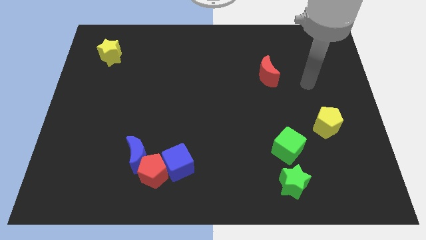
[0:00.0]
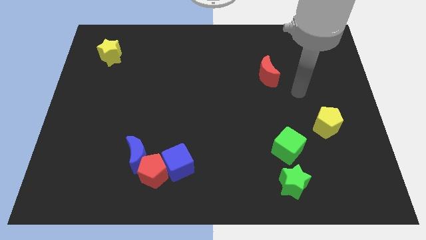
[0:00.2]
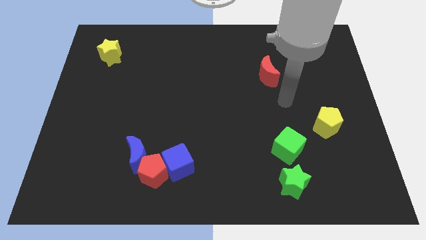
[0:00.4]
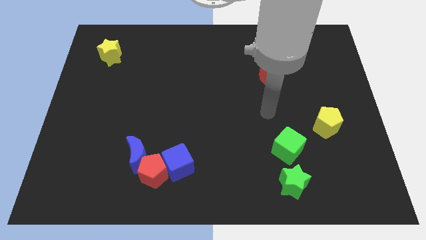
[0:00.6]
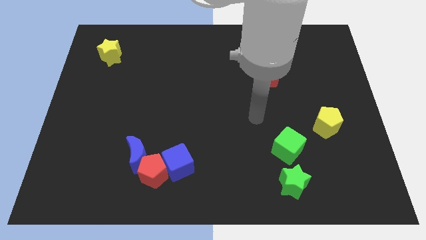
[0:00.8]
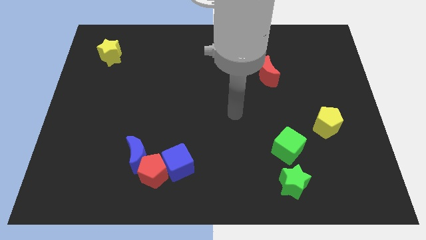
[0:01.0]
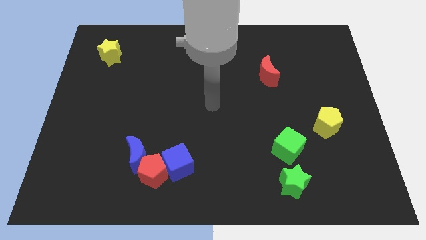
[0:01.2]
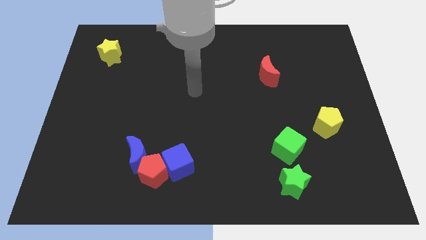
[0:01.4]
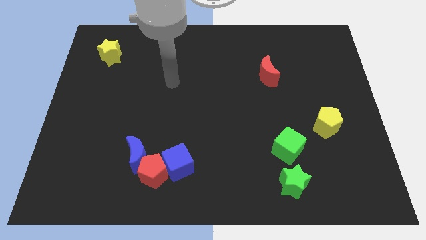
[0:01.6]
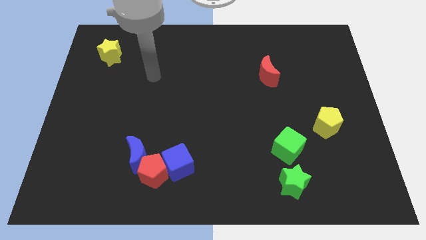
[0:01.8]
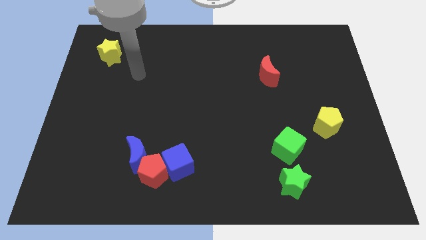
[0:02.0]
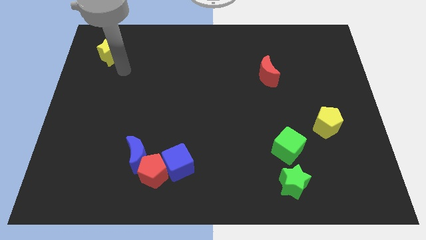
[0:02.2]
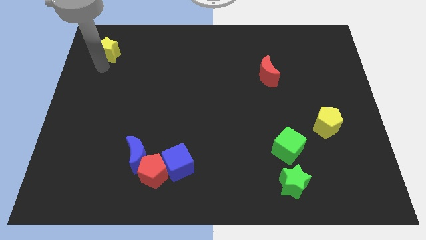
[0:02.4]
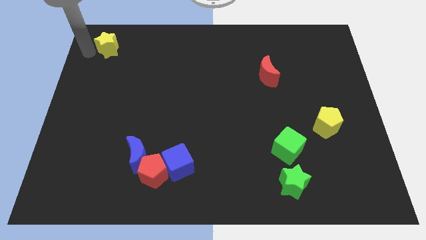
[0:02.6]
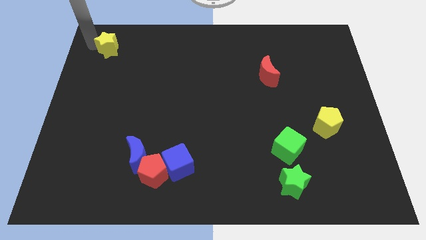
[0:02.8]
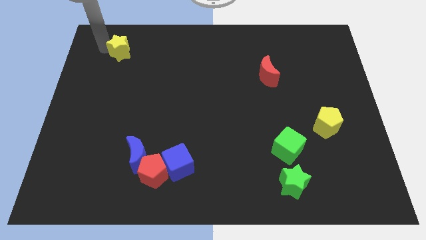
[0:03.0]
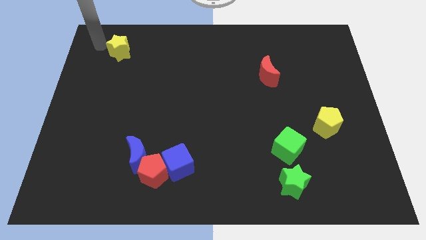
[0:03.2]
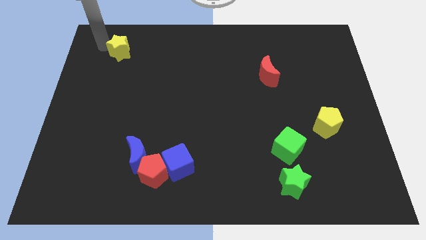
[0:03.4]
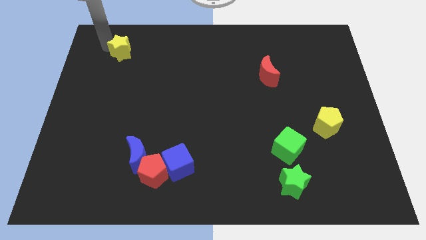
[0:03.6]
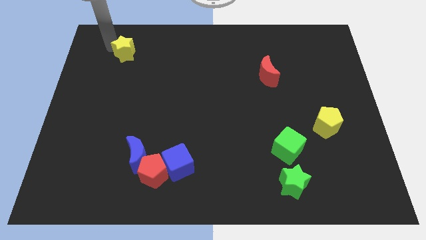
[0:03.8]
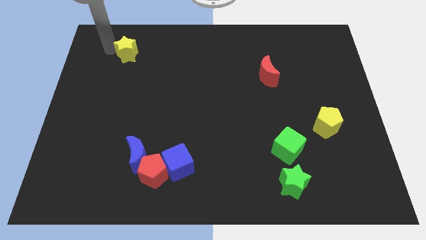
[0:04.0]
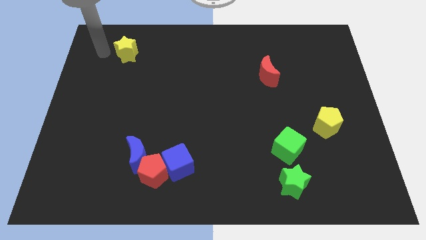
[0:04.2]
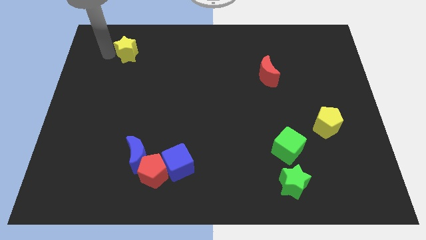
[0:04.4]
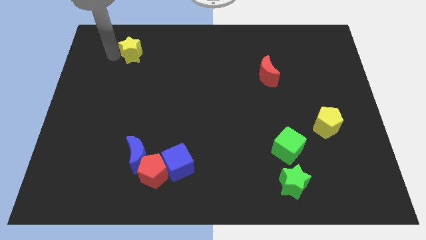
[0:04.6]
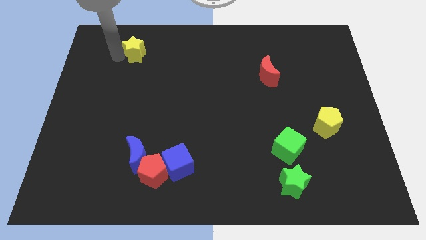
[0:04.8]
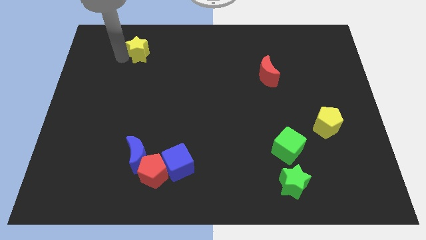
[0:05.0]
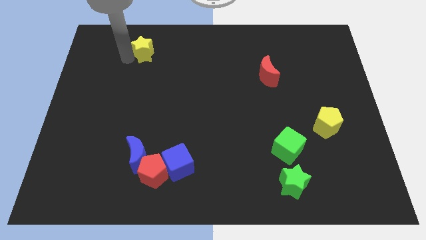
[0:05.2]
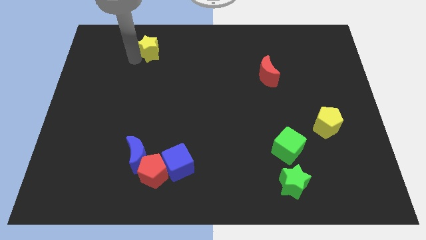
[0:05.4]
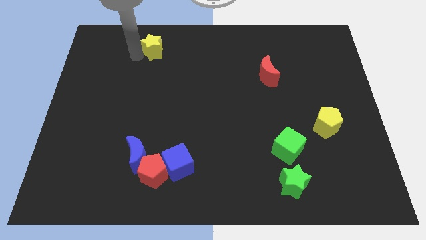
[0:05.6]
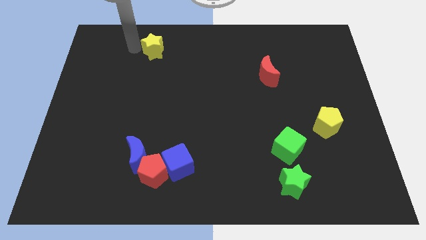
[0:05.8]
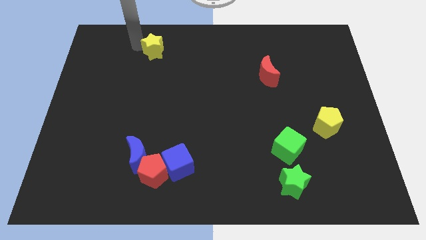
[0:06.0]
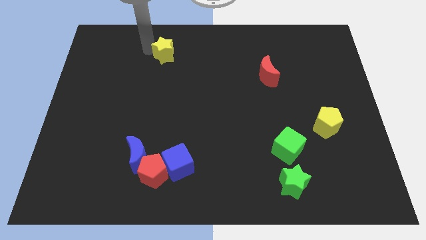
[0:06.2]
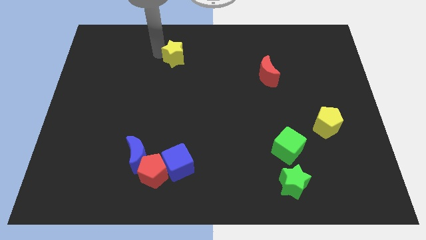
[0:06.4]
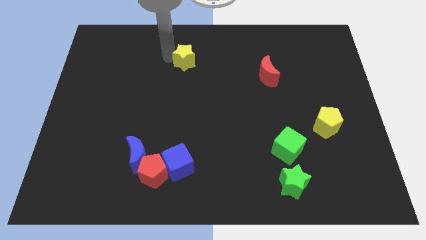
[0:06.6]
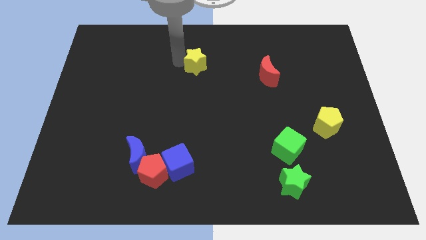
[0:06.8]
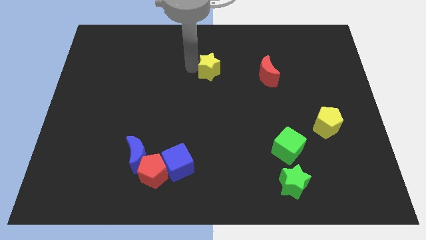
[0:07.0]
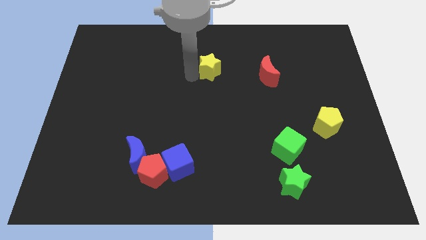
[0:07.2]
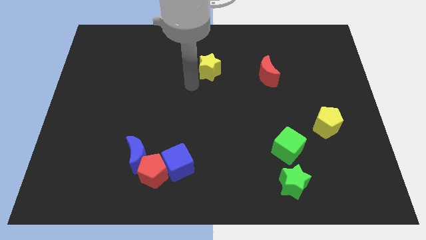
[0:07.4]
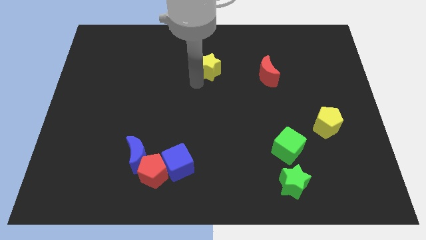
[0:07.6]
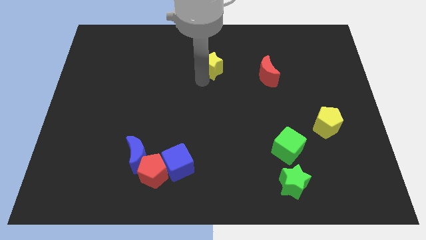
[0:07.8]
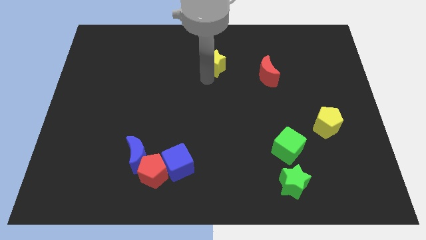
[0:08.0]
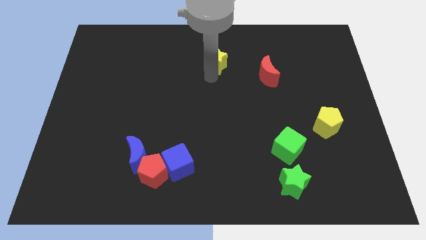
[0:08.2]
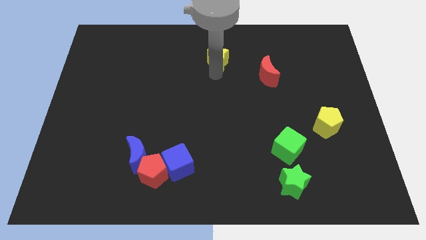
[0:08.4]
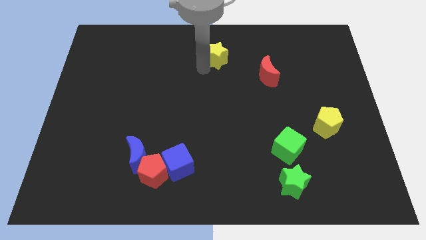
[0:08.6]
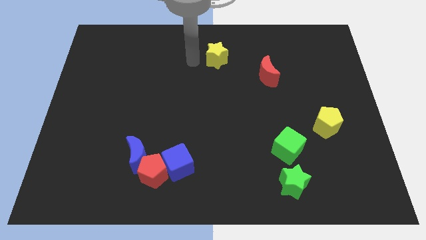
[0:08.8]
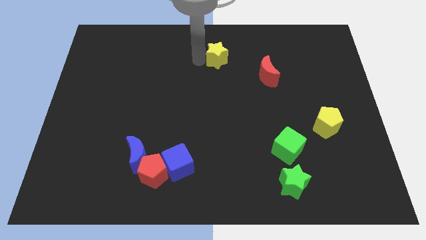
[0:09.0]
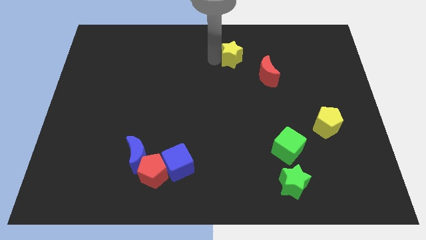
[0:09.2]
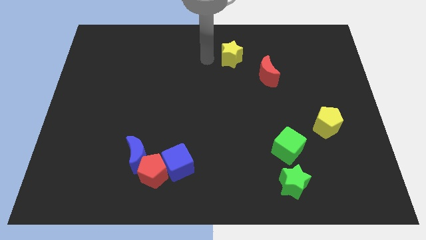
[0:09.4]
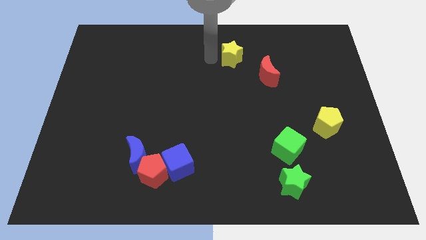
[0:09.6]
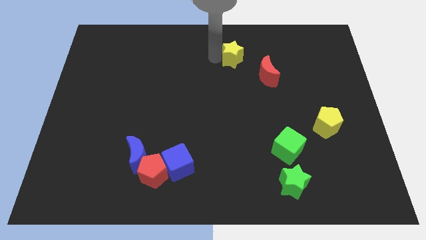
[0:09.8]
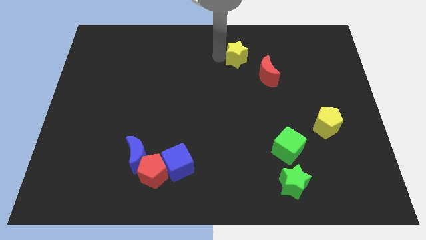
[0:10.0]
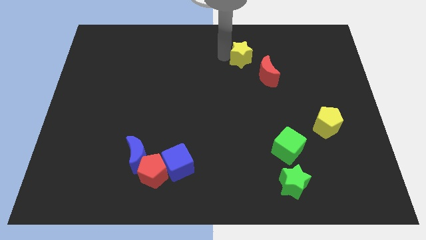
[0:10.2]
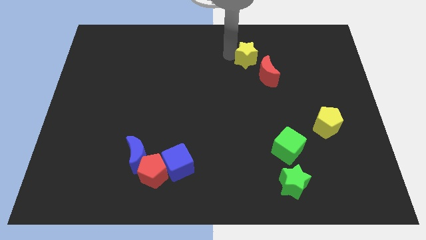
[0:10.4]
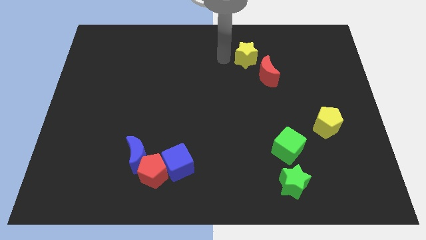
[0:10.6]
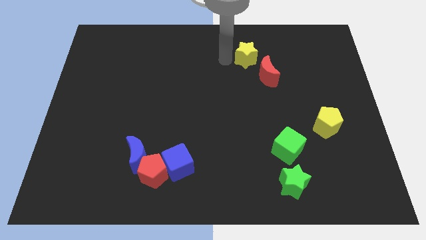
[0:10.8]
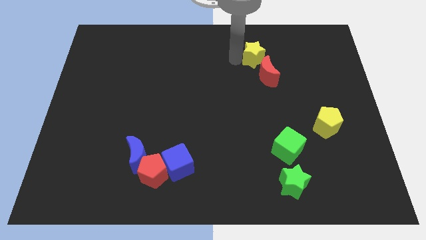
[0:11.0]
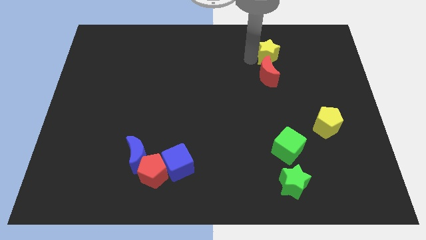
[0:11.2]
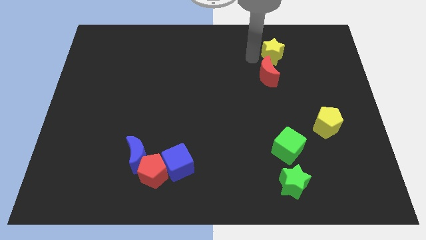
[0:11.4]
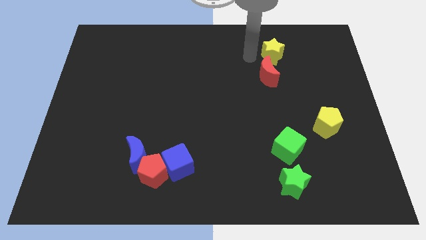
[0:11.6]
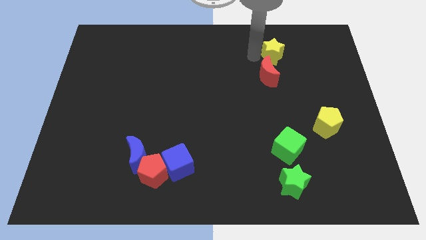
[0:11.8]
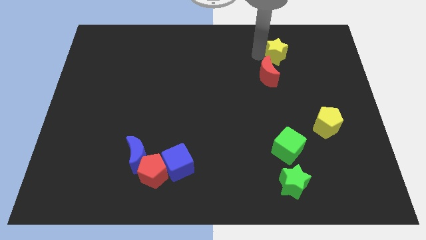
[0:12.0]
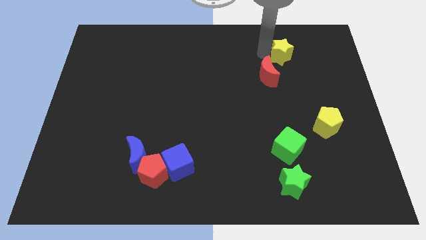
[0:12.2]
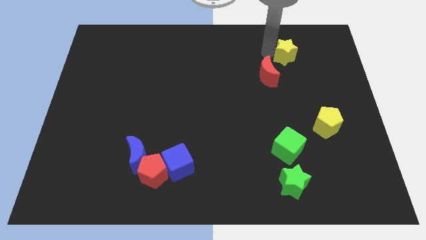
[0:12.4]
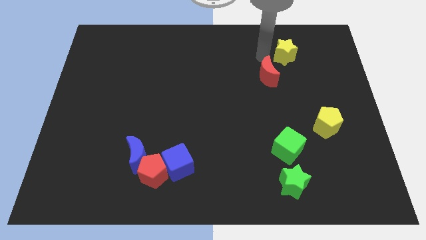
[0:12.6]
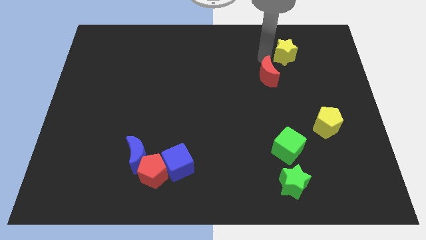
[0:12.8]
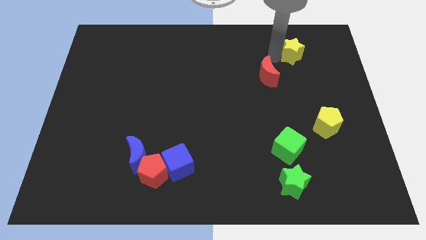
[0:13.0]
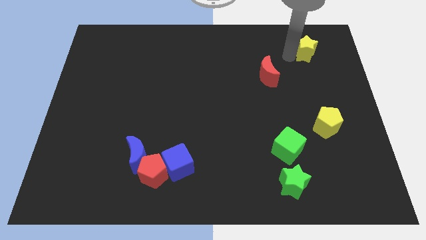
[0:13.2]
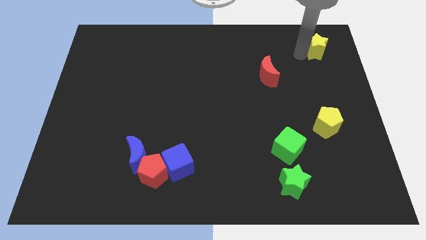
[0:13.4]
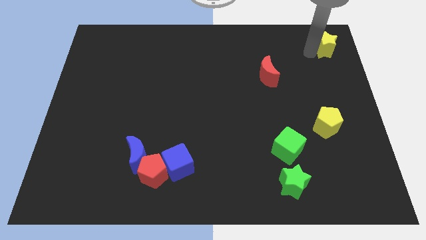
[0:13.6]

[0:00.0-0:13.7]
push the yellow star to the top right corner
